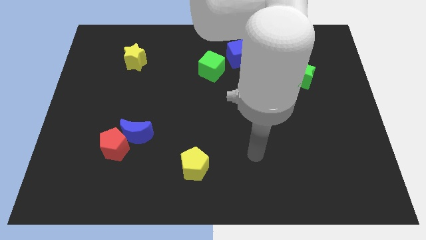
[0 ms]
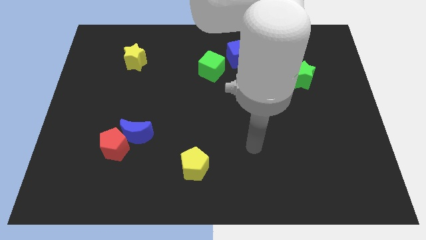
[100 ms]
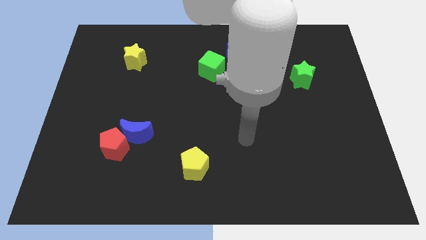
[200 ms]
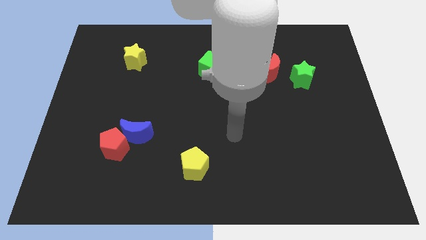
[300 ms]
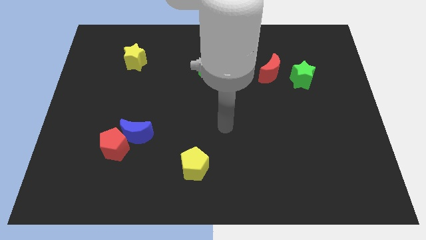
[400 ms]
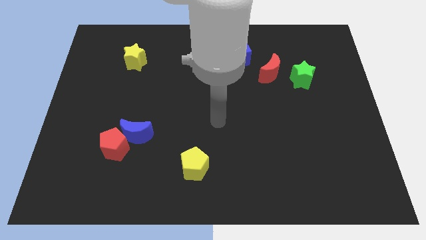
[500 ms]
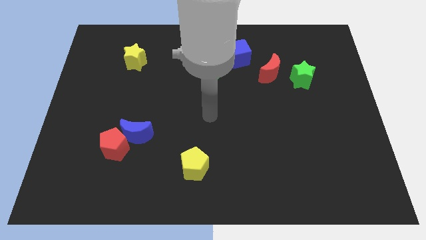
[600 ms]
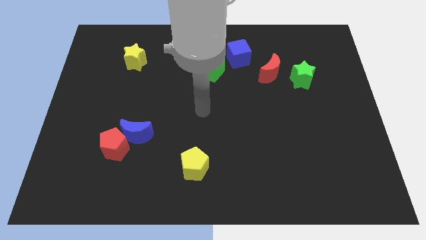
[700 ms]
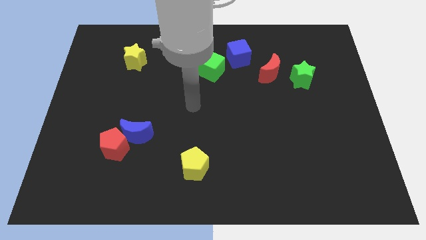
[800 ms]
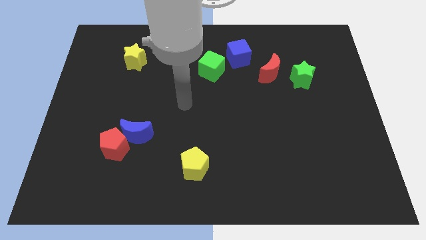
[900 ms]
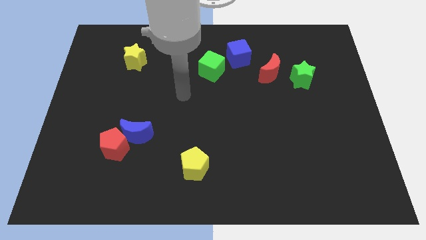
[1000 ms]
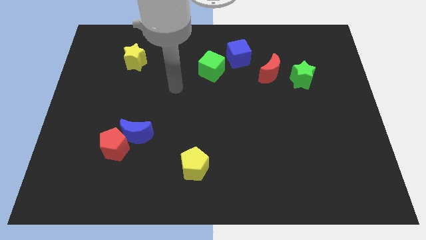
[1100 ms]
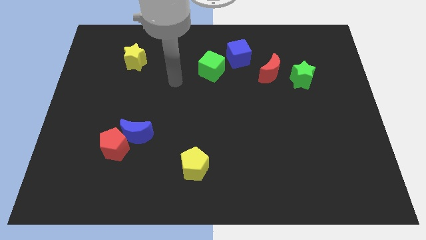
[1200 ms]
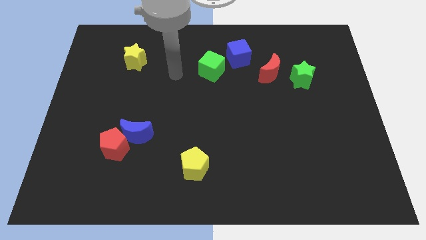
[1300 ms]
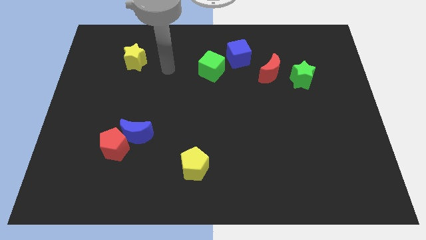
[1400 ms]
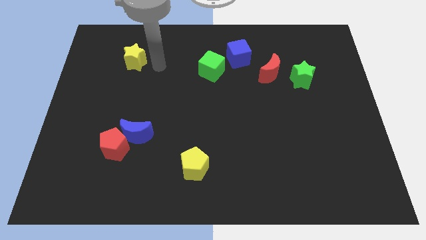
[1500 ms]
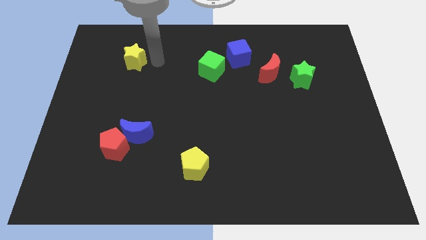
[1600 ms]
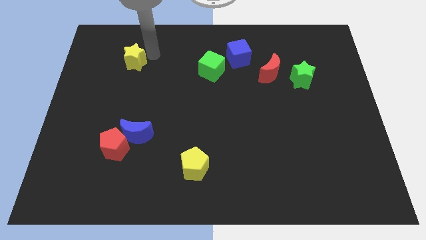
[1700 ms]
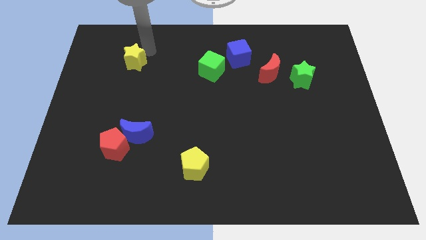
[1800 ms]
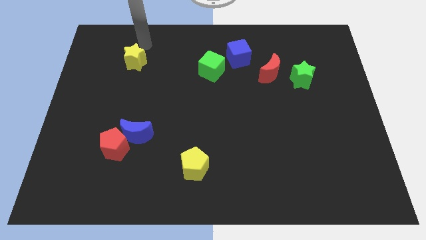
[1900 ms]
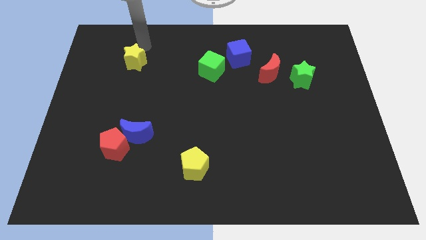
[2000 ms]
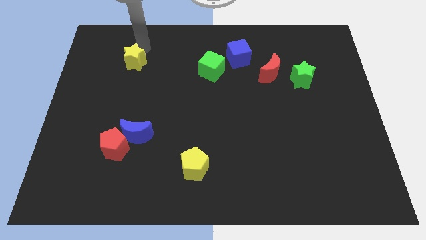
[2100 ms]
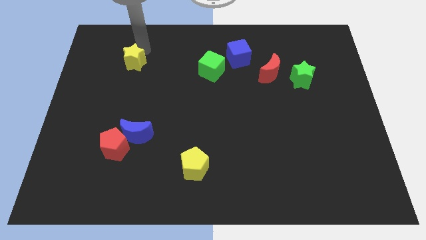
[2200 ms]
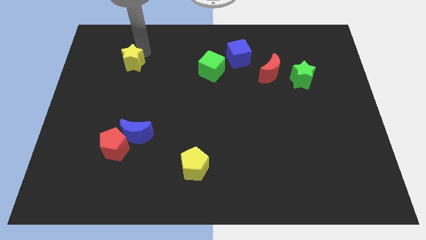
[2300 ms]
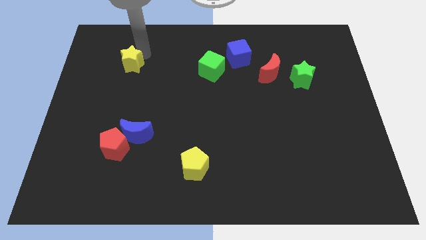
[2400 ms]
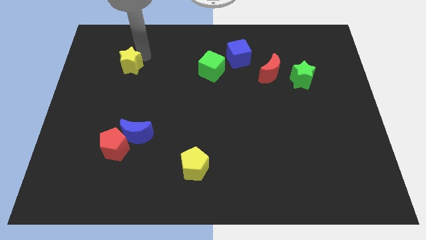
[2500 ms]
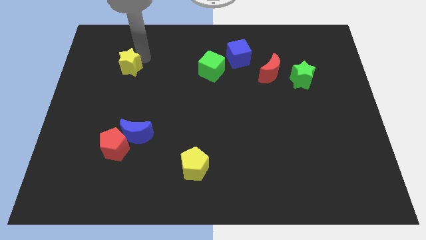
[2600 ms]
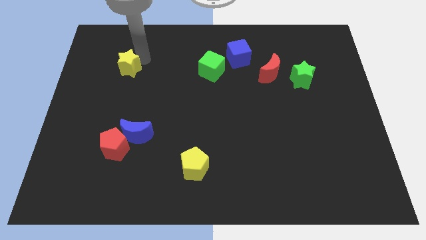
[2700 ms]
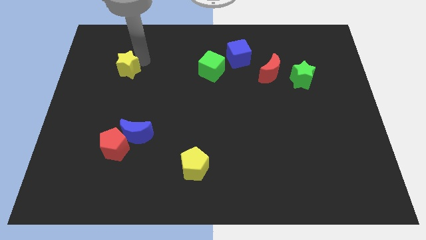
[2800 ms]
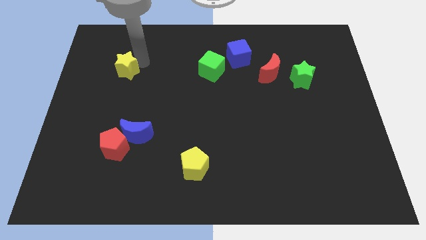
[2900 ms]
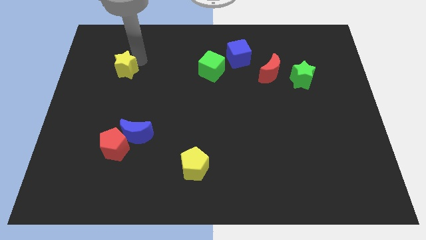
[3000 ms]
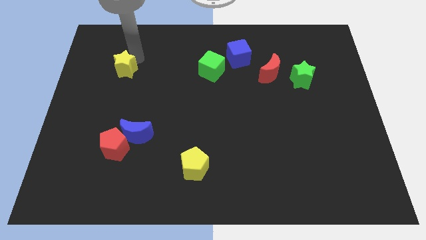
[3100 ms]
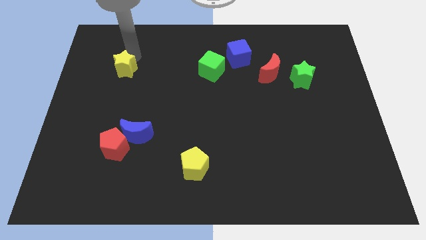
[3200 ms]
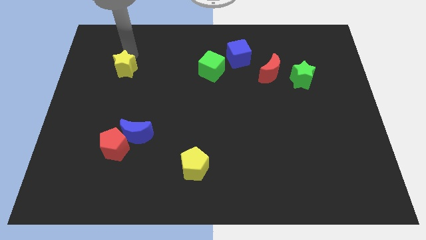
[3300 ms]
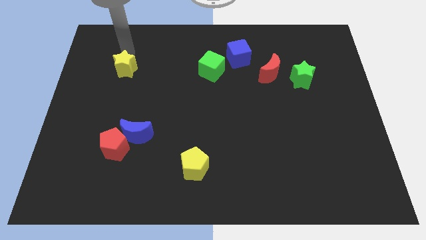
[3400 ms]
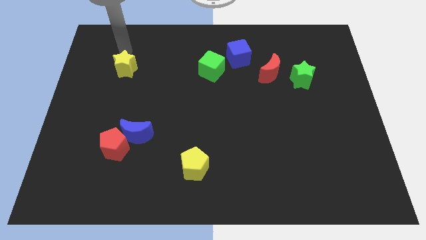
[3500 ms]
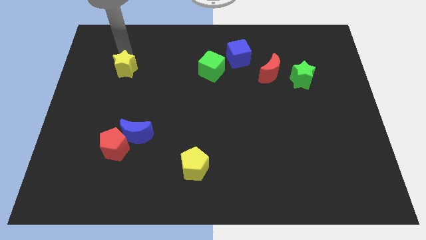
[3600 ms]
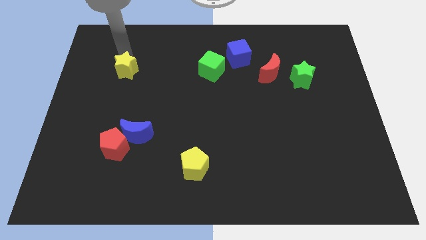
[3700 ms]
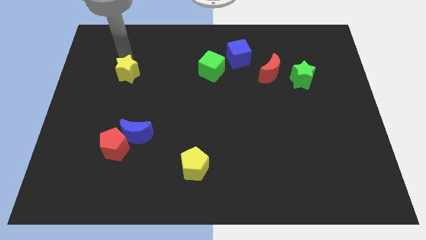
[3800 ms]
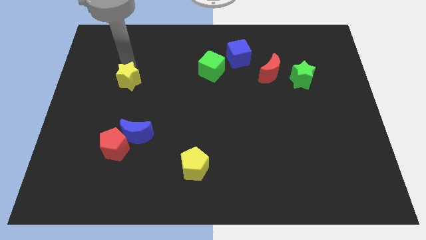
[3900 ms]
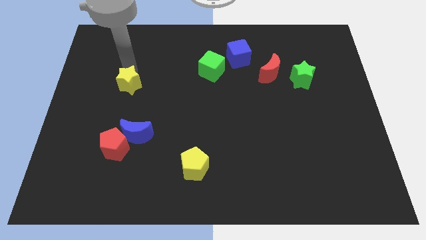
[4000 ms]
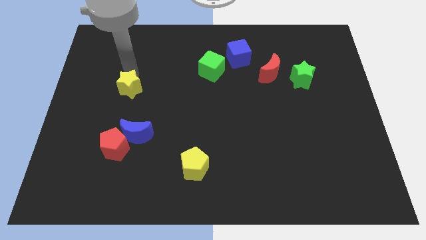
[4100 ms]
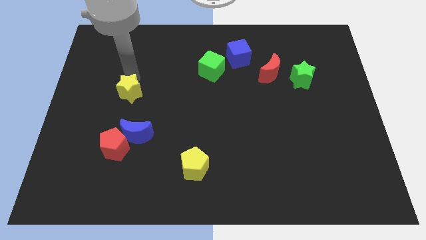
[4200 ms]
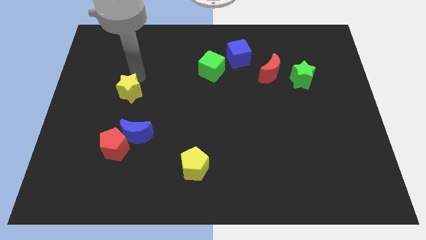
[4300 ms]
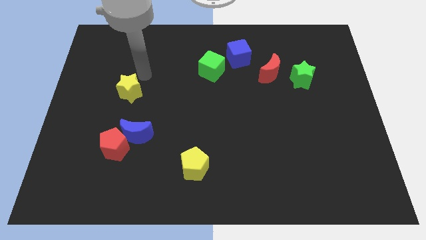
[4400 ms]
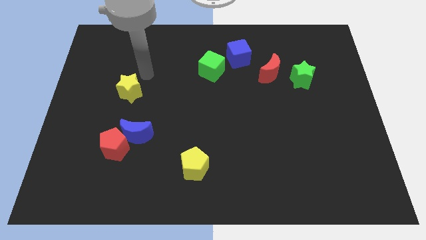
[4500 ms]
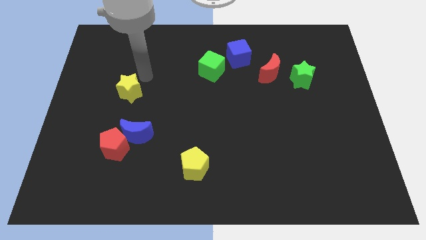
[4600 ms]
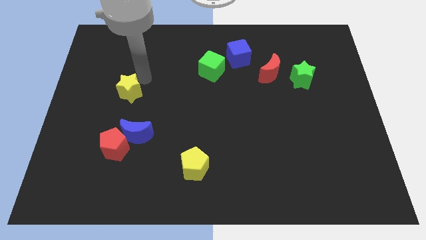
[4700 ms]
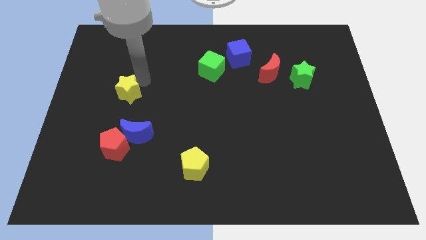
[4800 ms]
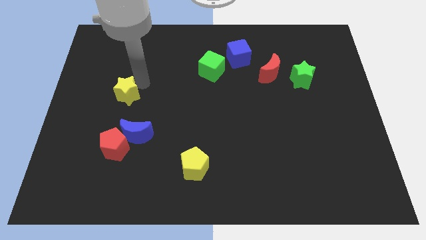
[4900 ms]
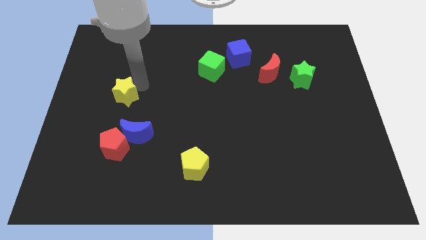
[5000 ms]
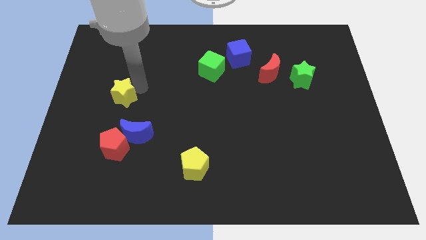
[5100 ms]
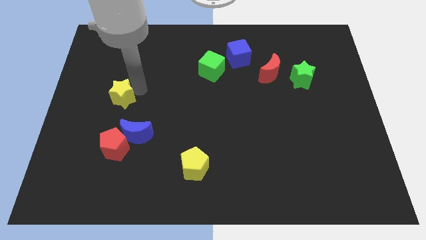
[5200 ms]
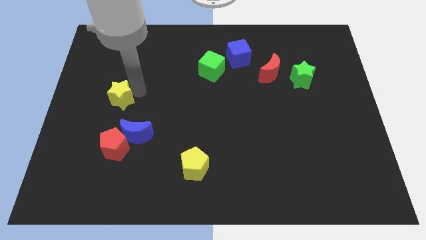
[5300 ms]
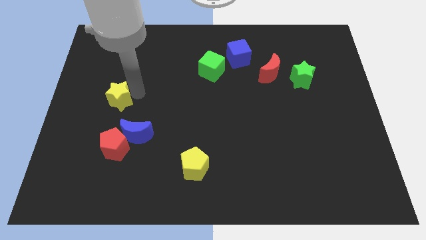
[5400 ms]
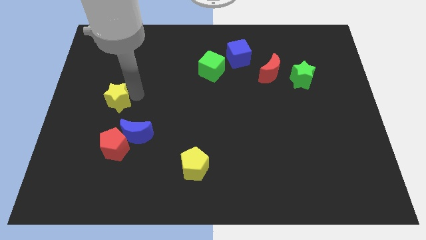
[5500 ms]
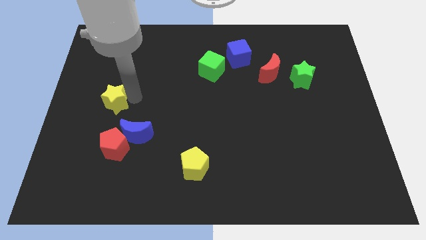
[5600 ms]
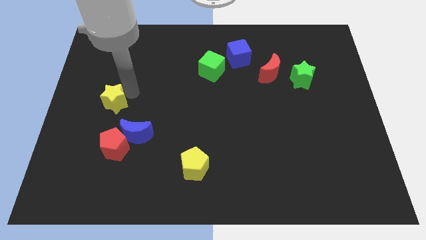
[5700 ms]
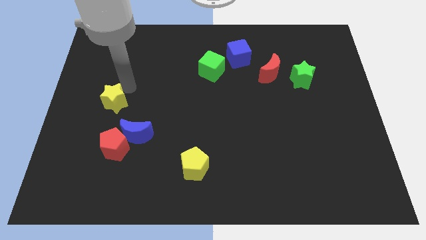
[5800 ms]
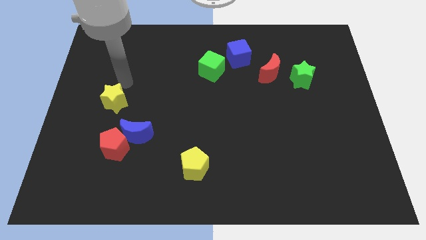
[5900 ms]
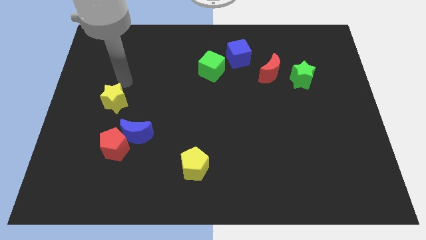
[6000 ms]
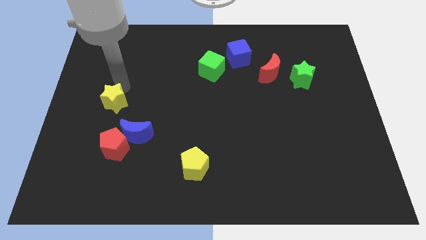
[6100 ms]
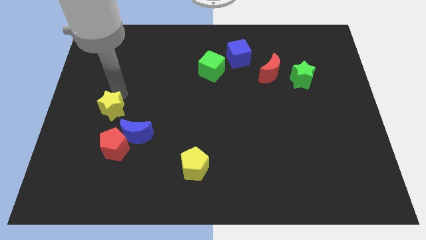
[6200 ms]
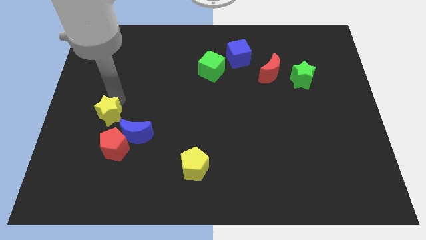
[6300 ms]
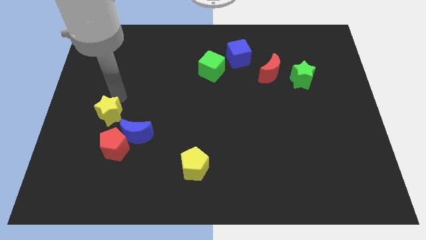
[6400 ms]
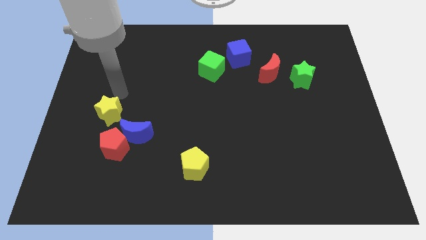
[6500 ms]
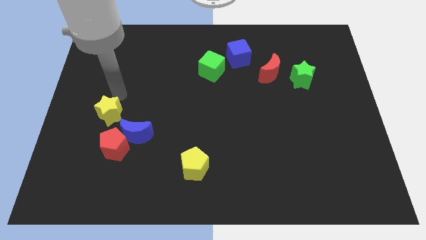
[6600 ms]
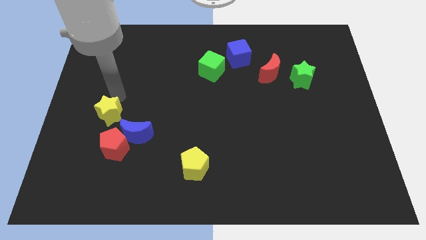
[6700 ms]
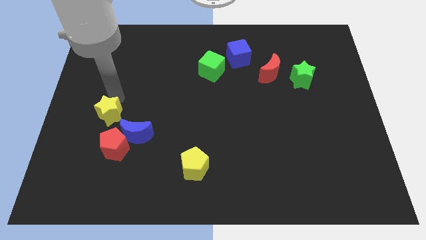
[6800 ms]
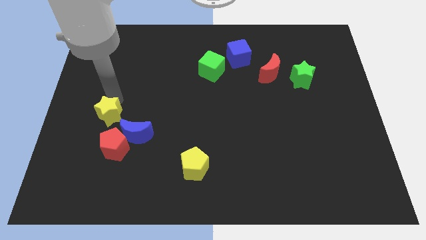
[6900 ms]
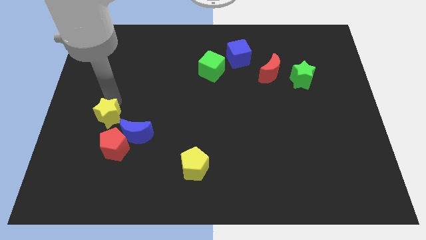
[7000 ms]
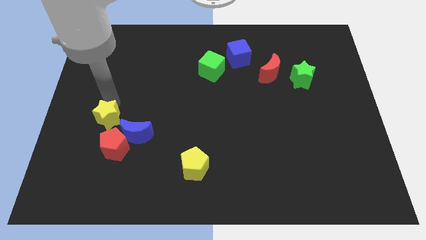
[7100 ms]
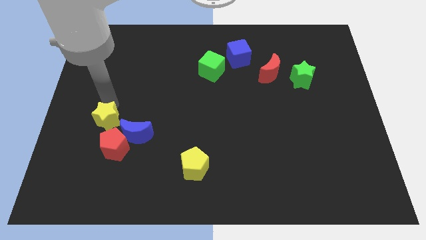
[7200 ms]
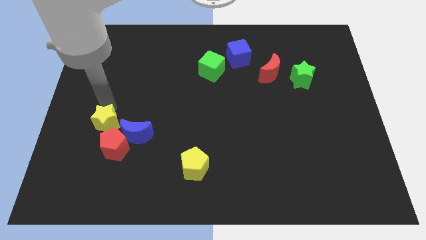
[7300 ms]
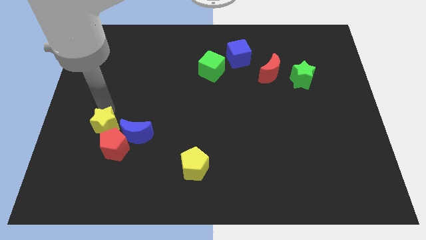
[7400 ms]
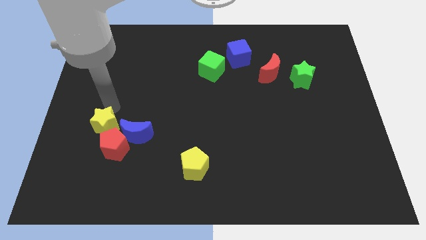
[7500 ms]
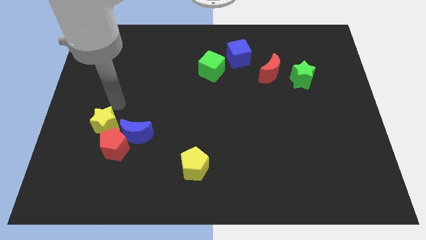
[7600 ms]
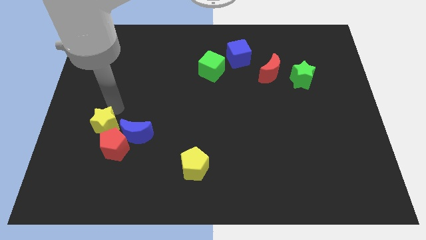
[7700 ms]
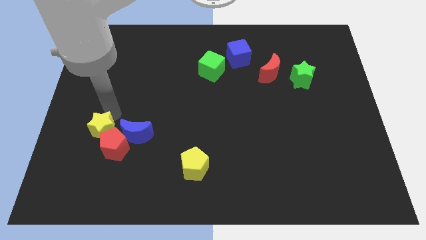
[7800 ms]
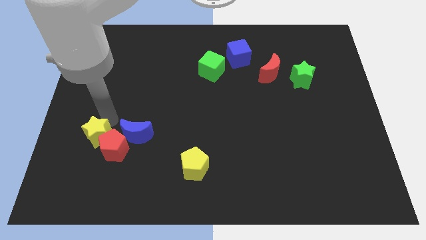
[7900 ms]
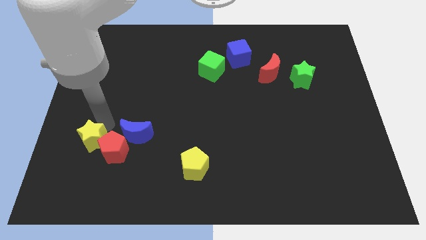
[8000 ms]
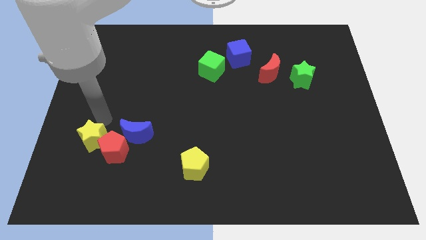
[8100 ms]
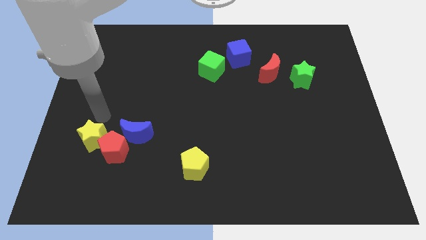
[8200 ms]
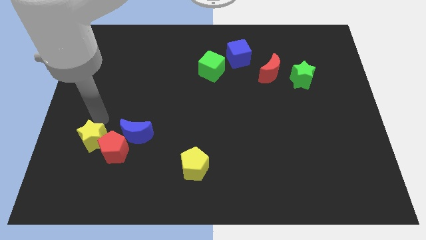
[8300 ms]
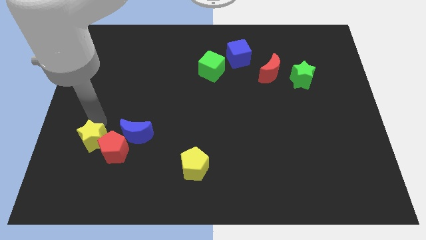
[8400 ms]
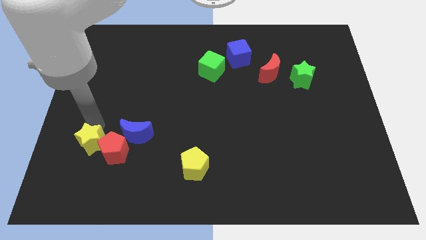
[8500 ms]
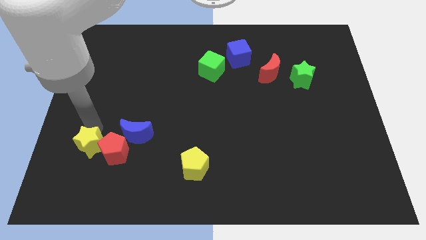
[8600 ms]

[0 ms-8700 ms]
slide the yellow star diagonally down and to the left of the red pentagon
